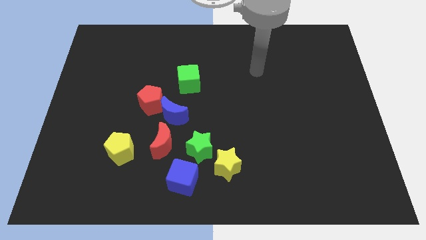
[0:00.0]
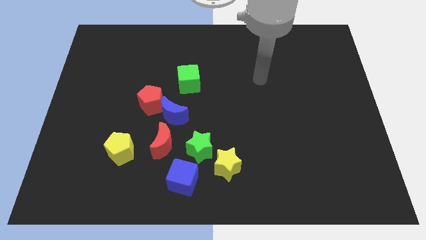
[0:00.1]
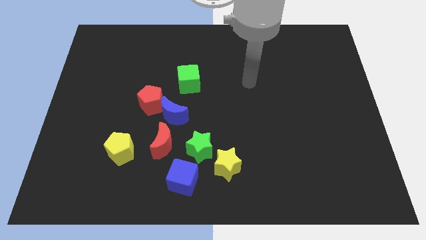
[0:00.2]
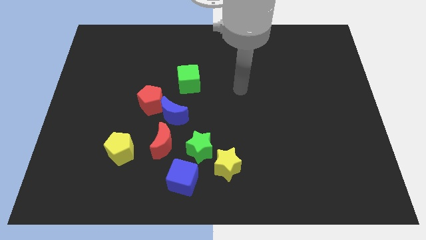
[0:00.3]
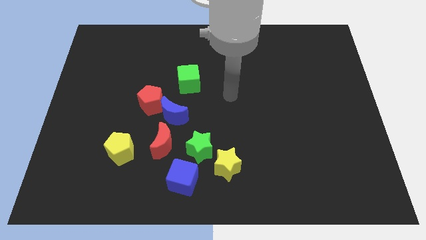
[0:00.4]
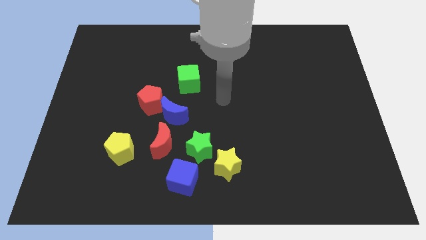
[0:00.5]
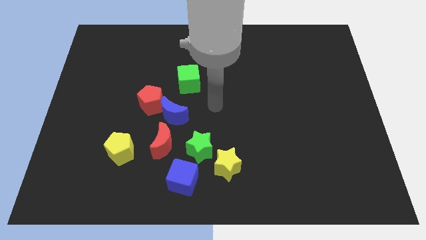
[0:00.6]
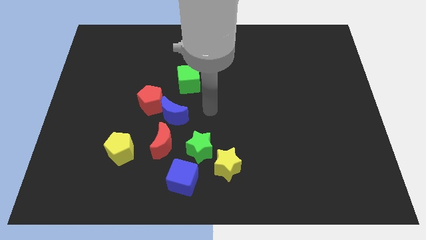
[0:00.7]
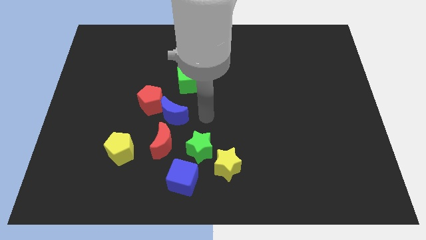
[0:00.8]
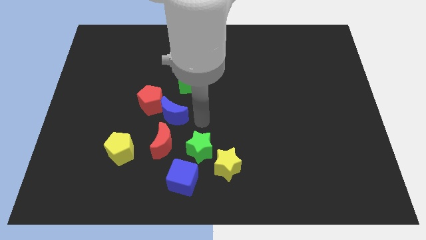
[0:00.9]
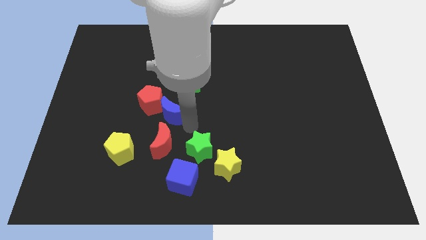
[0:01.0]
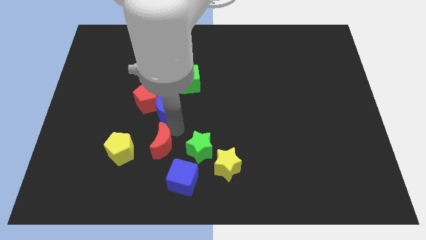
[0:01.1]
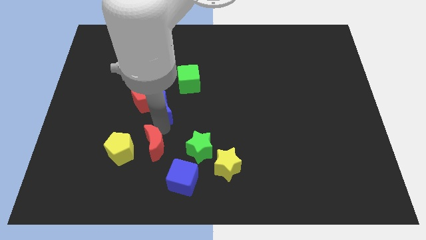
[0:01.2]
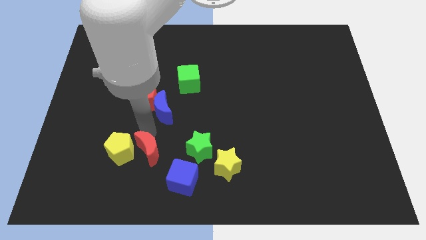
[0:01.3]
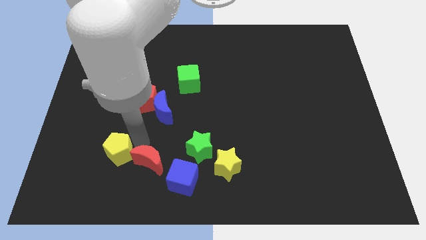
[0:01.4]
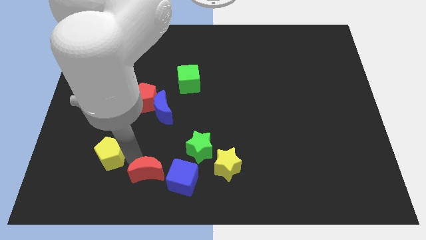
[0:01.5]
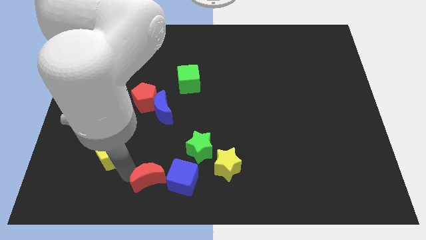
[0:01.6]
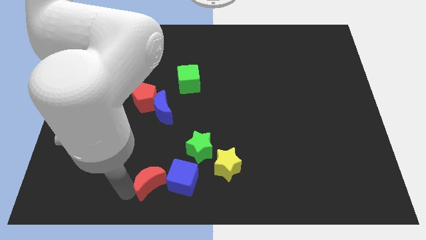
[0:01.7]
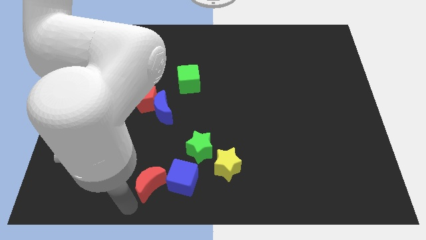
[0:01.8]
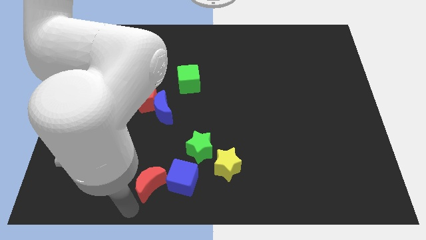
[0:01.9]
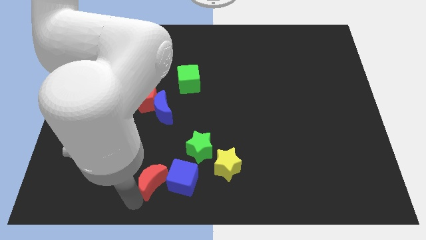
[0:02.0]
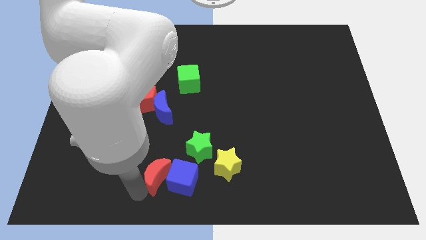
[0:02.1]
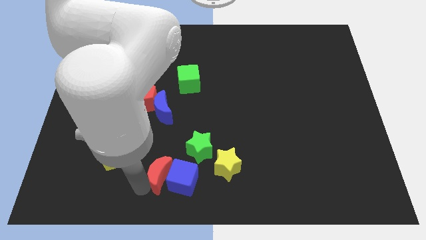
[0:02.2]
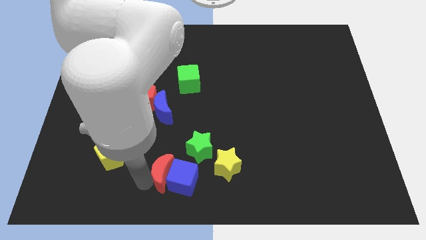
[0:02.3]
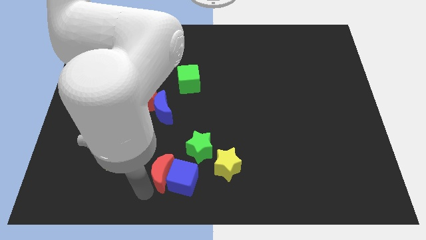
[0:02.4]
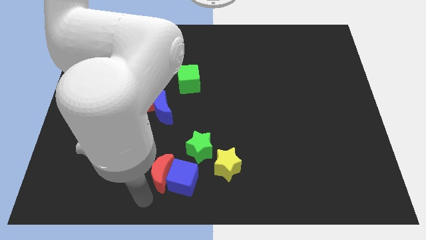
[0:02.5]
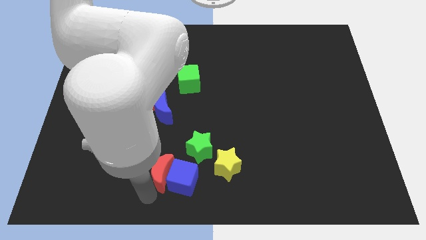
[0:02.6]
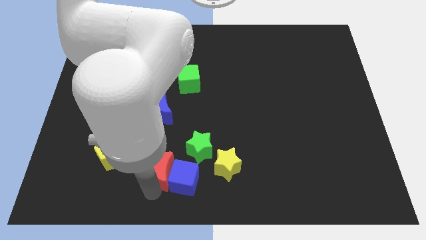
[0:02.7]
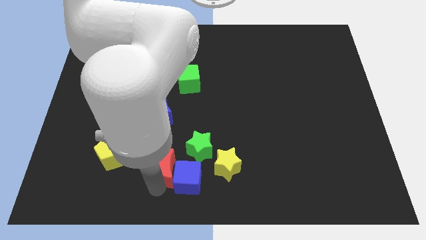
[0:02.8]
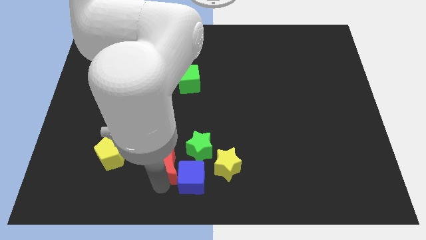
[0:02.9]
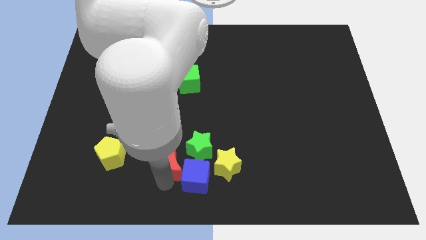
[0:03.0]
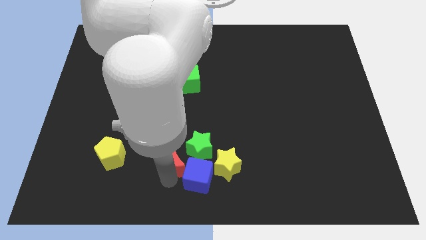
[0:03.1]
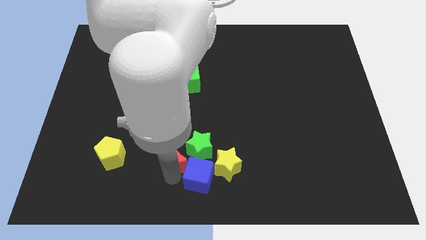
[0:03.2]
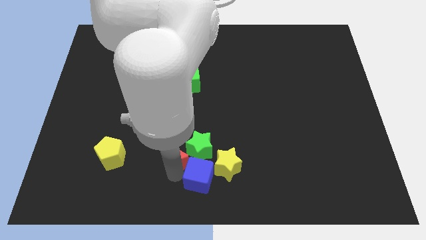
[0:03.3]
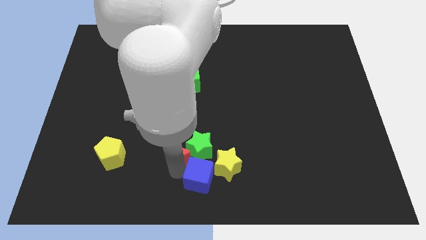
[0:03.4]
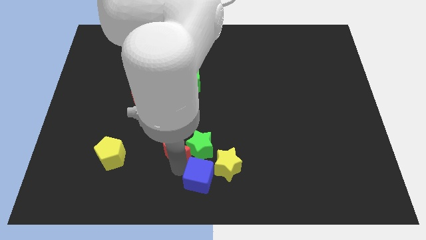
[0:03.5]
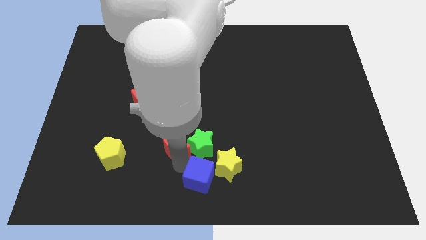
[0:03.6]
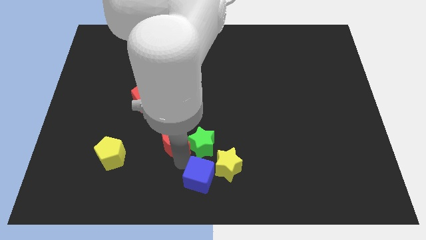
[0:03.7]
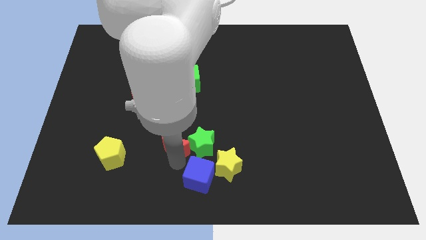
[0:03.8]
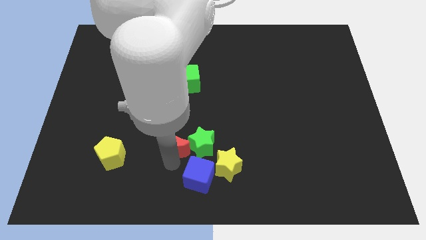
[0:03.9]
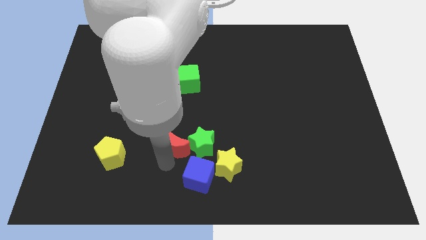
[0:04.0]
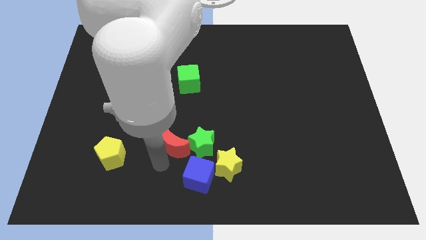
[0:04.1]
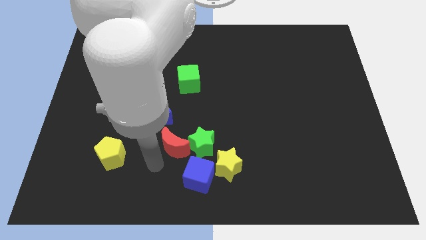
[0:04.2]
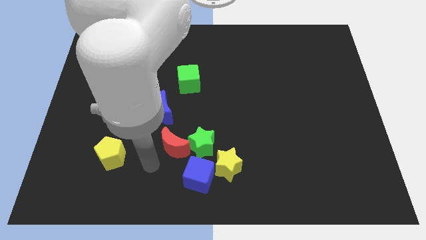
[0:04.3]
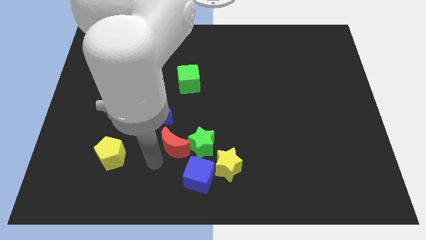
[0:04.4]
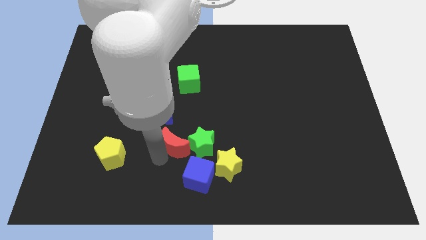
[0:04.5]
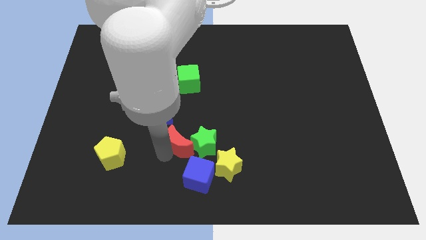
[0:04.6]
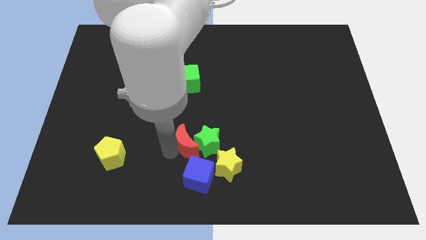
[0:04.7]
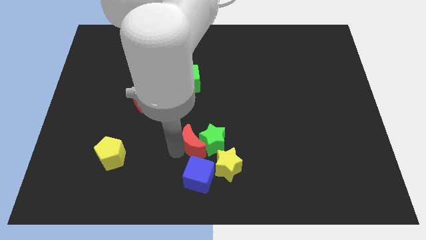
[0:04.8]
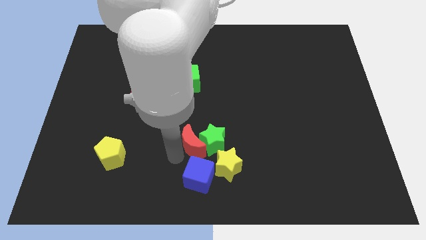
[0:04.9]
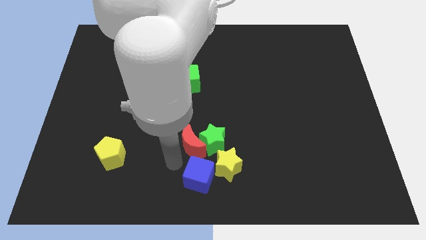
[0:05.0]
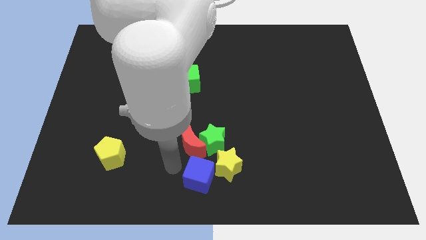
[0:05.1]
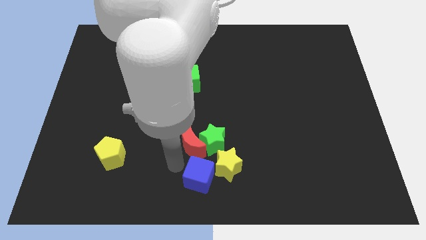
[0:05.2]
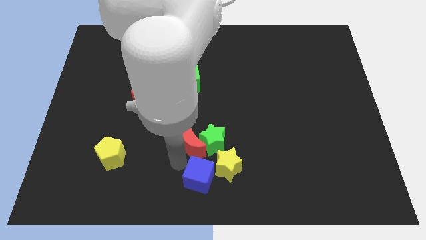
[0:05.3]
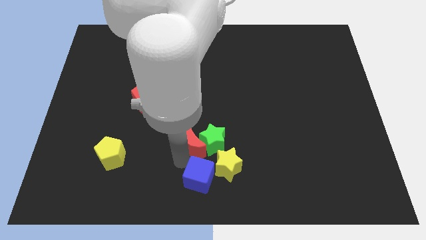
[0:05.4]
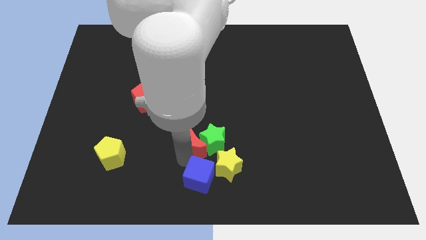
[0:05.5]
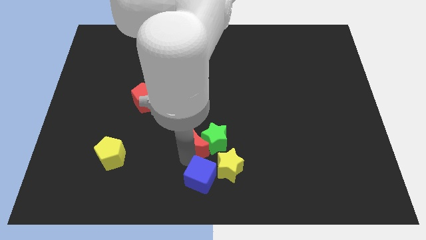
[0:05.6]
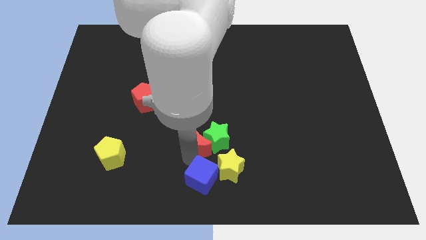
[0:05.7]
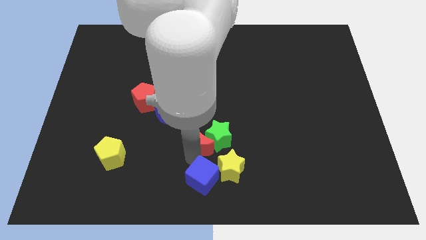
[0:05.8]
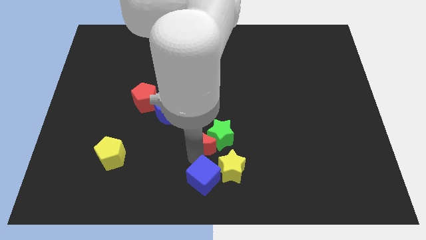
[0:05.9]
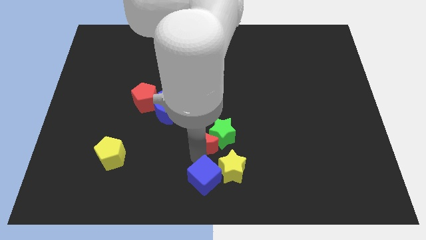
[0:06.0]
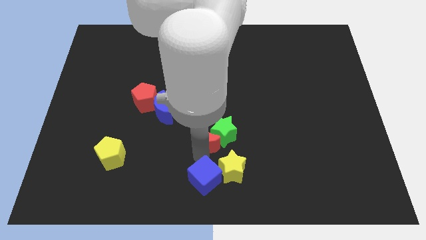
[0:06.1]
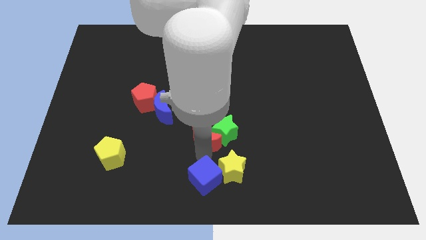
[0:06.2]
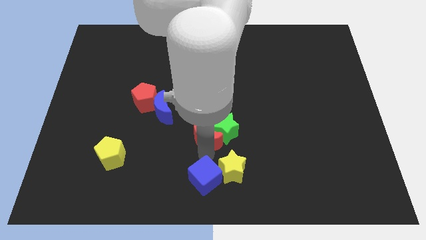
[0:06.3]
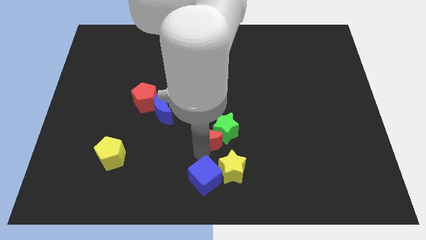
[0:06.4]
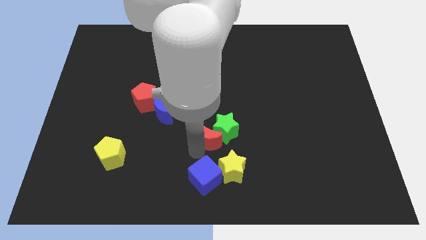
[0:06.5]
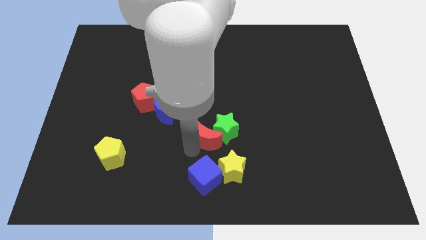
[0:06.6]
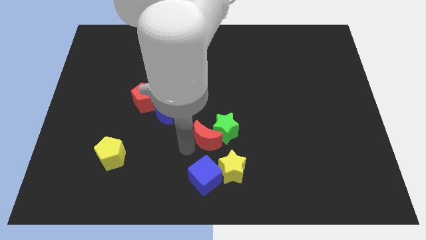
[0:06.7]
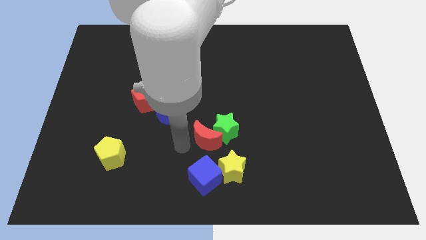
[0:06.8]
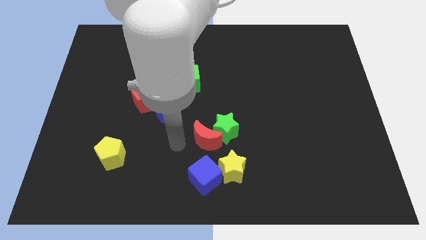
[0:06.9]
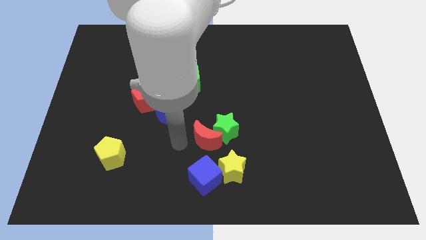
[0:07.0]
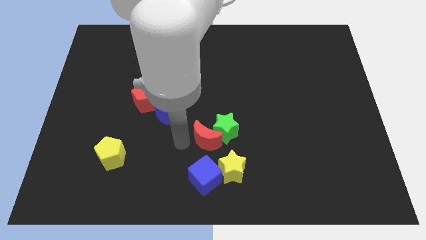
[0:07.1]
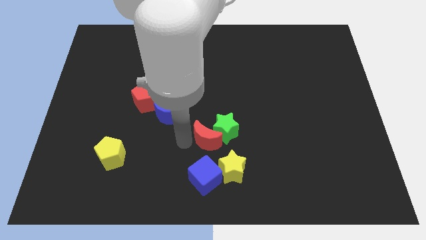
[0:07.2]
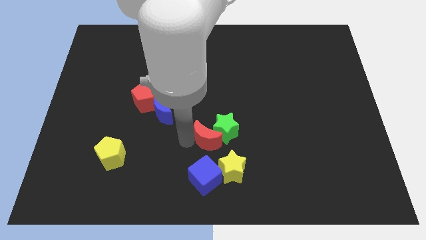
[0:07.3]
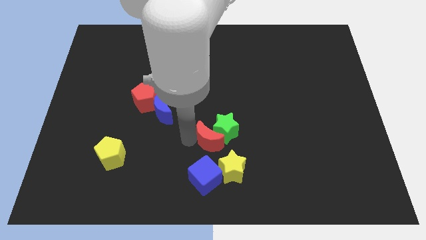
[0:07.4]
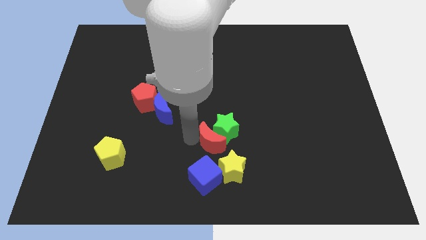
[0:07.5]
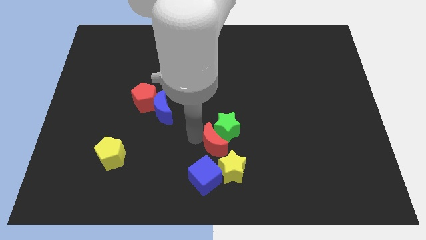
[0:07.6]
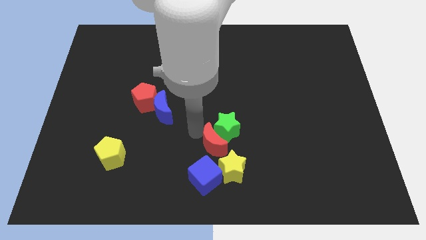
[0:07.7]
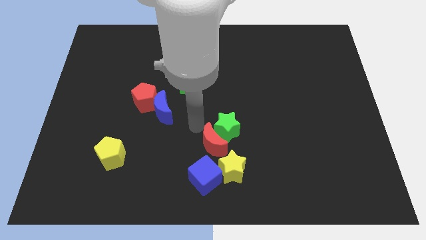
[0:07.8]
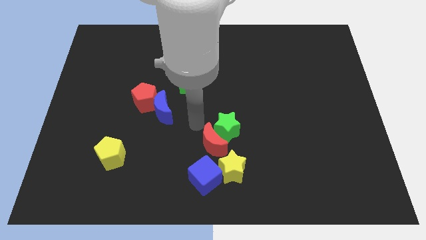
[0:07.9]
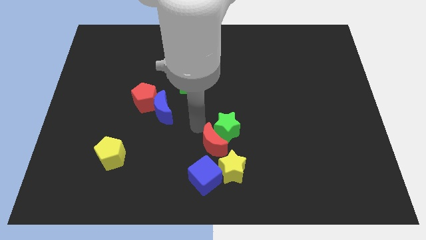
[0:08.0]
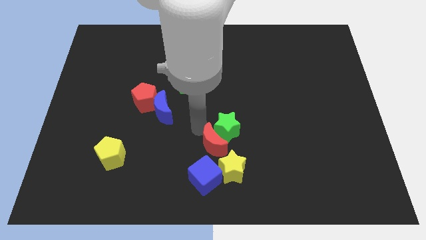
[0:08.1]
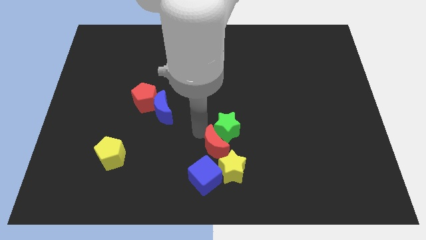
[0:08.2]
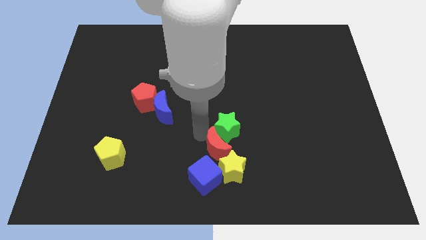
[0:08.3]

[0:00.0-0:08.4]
push the red moon close to the yellow star
